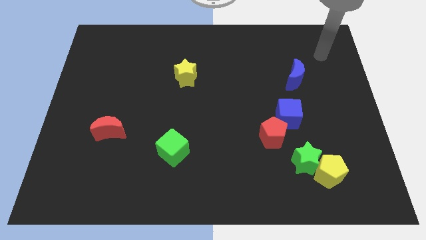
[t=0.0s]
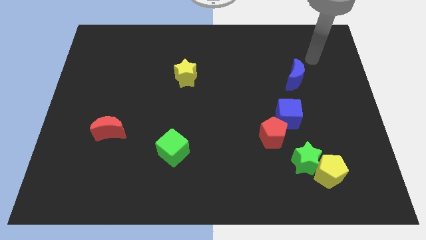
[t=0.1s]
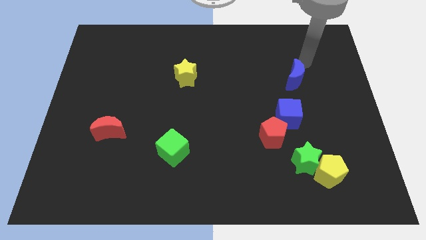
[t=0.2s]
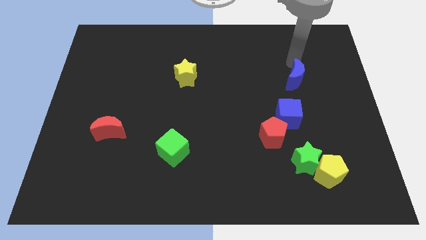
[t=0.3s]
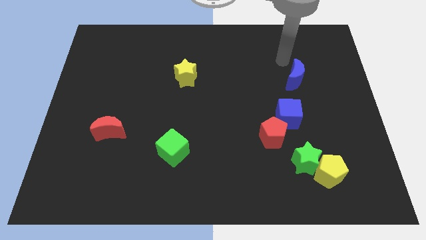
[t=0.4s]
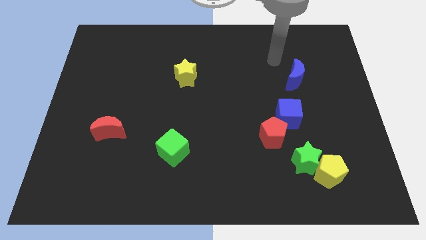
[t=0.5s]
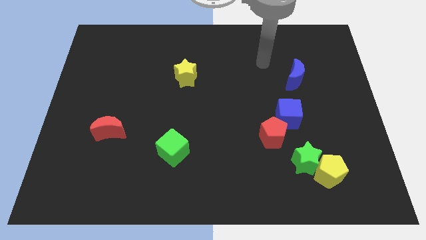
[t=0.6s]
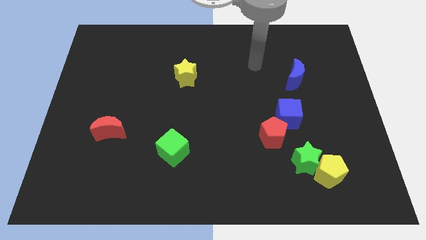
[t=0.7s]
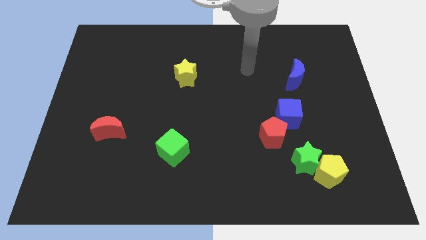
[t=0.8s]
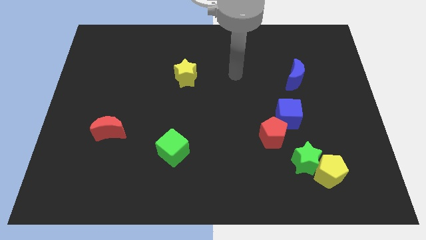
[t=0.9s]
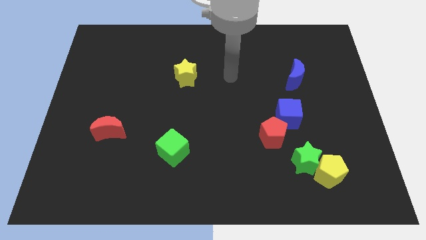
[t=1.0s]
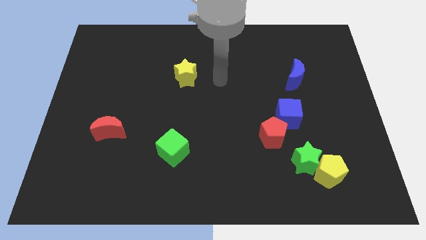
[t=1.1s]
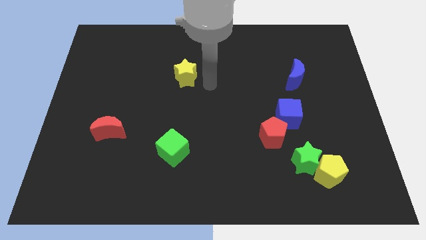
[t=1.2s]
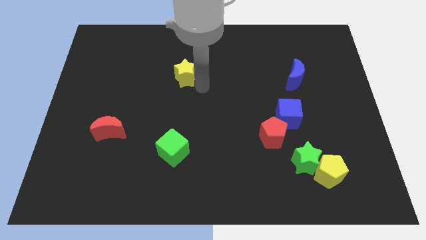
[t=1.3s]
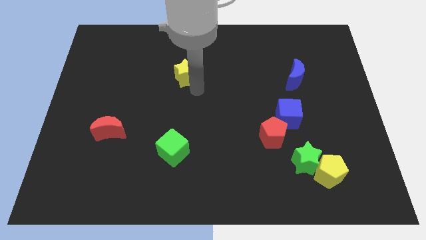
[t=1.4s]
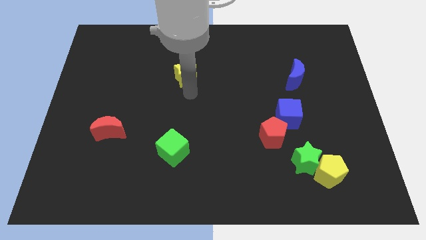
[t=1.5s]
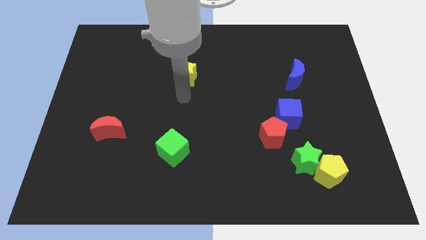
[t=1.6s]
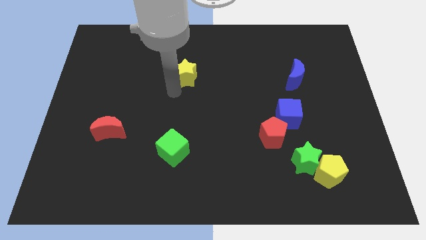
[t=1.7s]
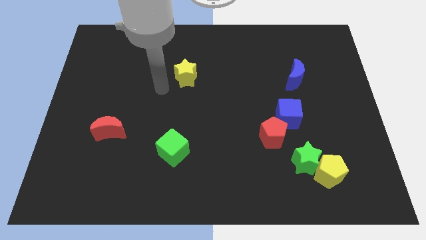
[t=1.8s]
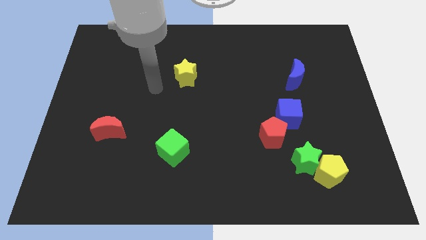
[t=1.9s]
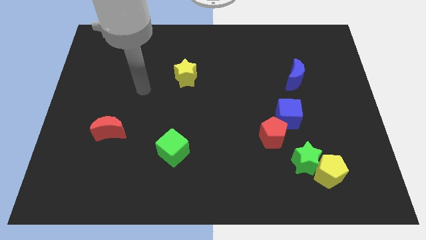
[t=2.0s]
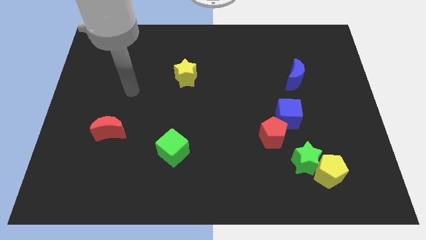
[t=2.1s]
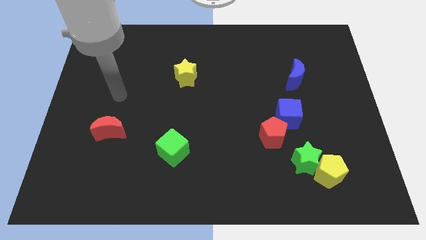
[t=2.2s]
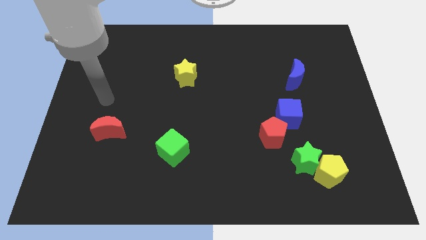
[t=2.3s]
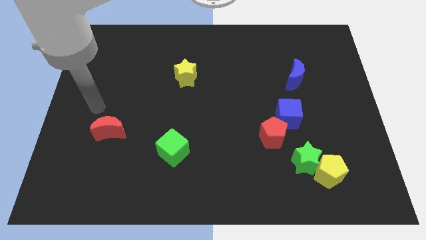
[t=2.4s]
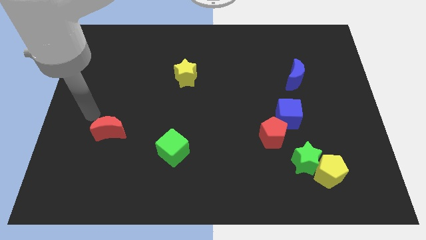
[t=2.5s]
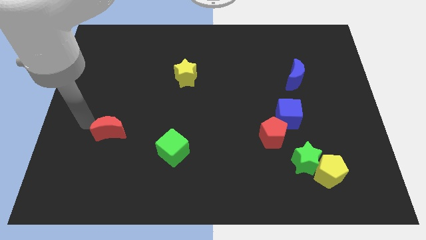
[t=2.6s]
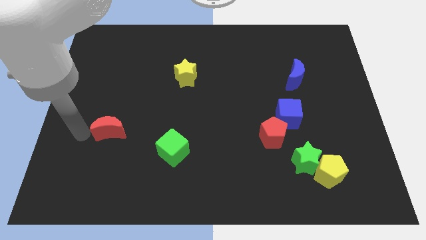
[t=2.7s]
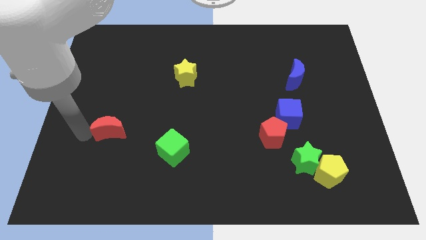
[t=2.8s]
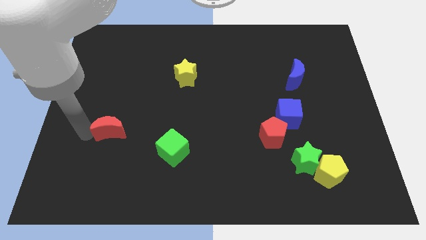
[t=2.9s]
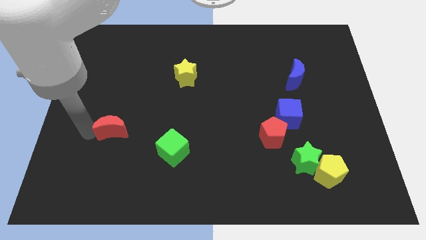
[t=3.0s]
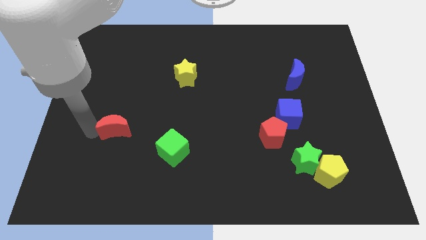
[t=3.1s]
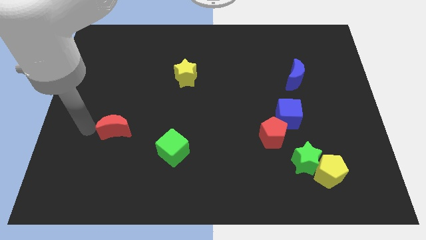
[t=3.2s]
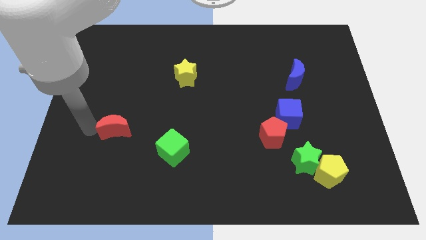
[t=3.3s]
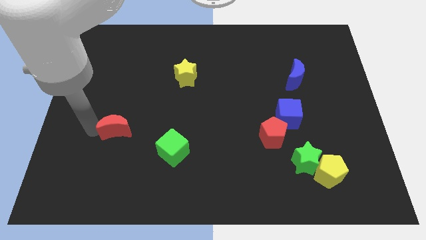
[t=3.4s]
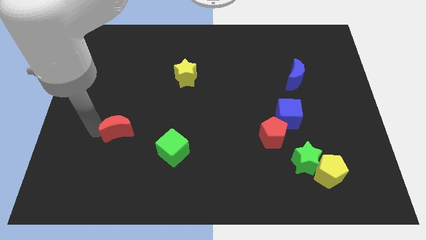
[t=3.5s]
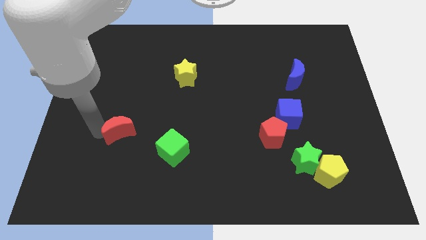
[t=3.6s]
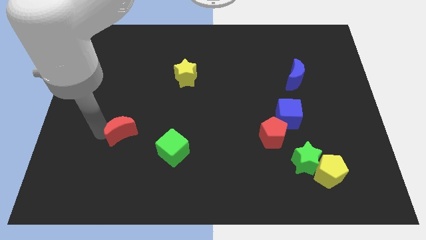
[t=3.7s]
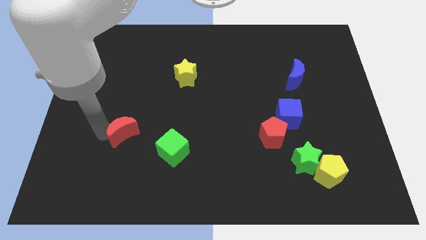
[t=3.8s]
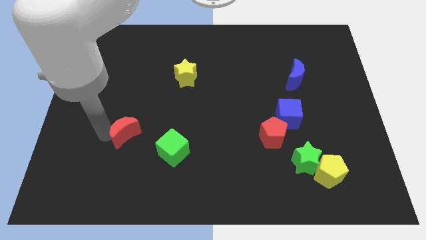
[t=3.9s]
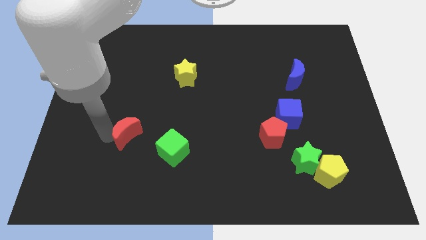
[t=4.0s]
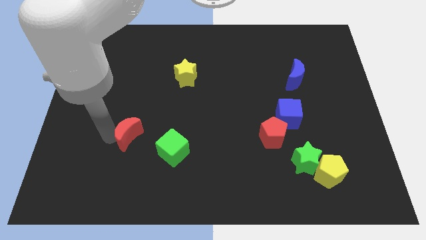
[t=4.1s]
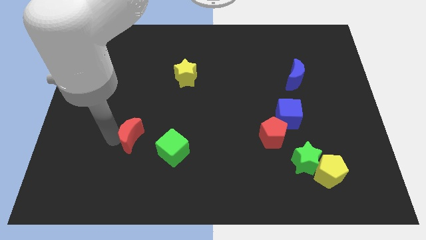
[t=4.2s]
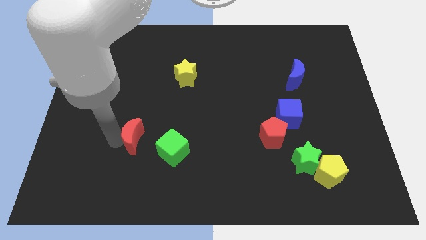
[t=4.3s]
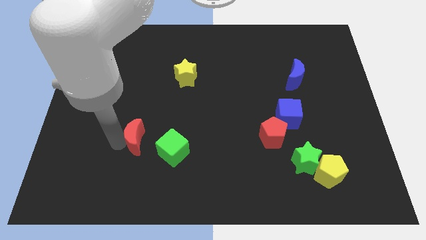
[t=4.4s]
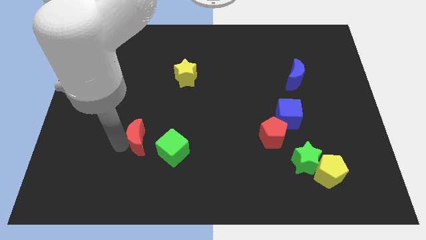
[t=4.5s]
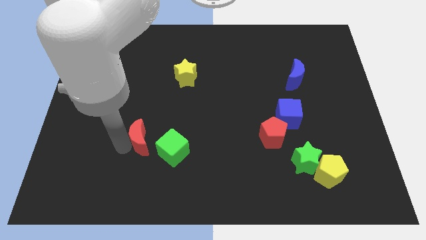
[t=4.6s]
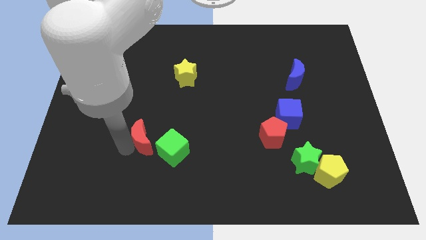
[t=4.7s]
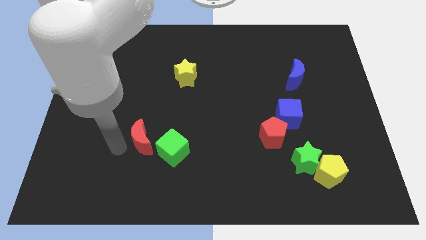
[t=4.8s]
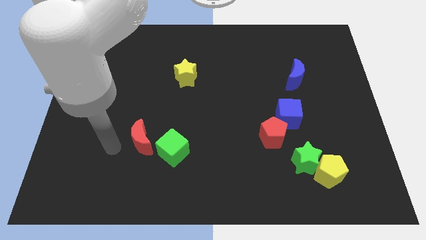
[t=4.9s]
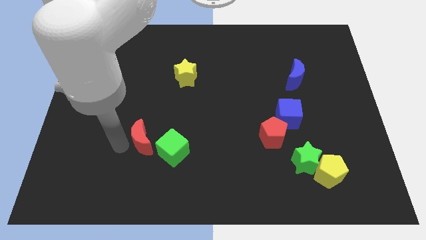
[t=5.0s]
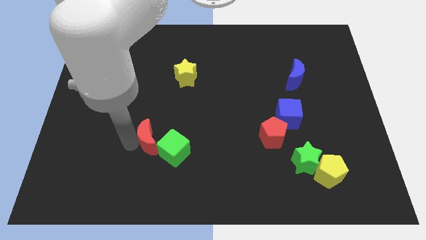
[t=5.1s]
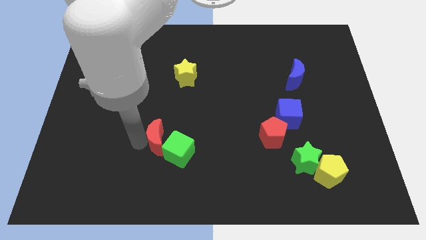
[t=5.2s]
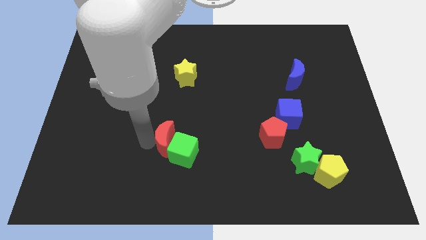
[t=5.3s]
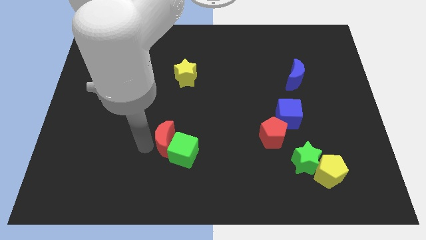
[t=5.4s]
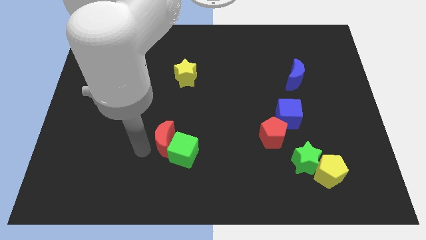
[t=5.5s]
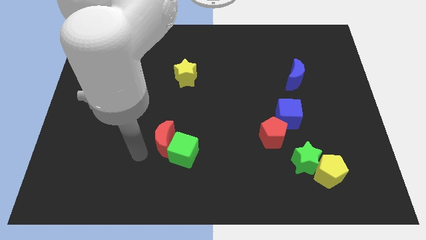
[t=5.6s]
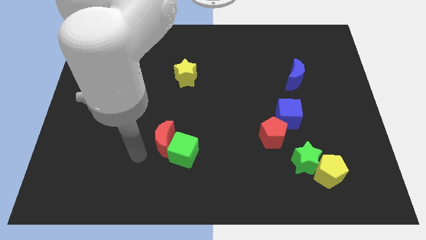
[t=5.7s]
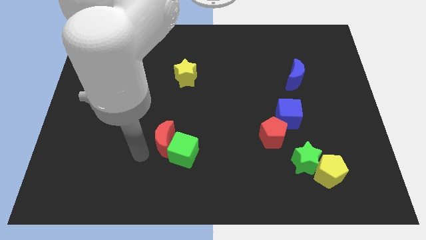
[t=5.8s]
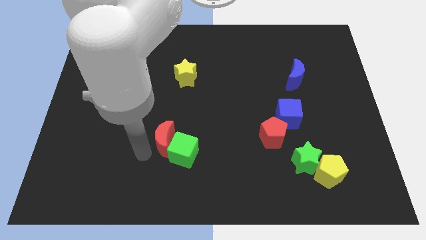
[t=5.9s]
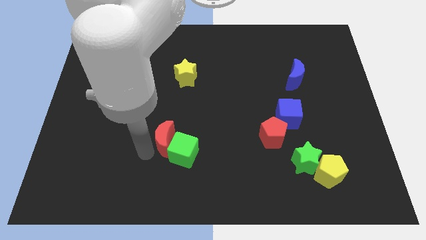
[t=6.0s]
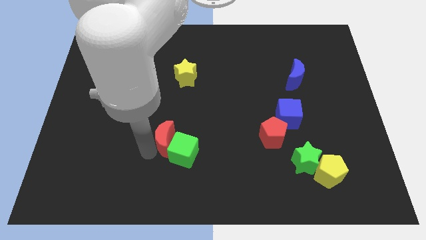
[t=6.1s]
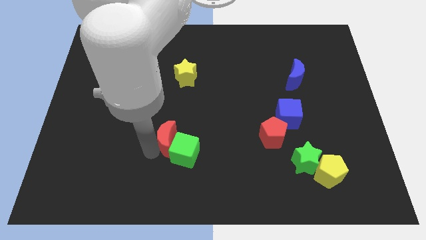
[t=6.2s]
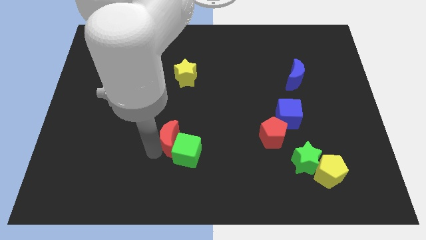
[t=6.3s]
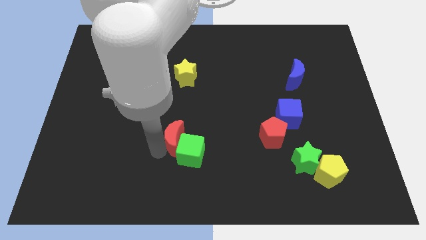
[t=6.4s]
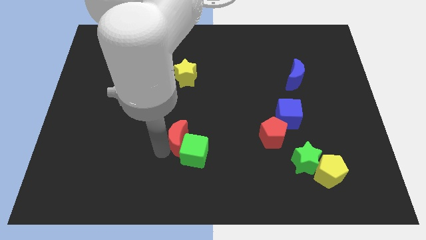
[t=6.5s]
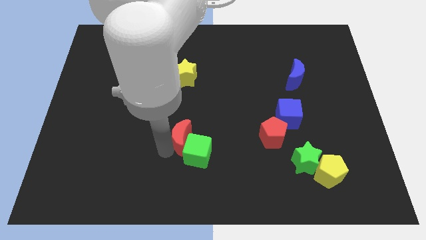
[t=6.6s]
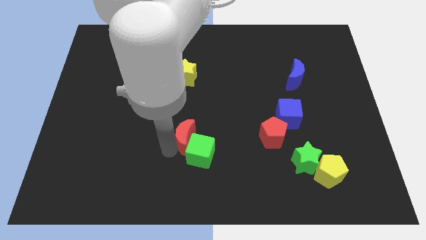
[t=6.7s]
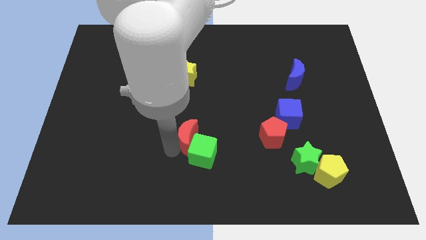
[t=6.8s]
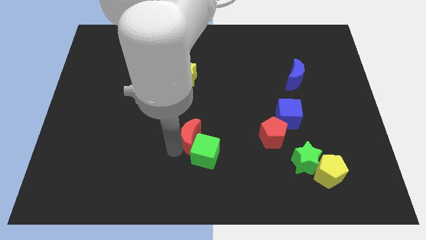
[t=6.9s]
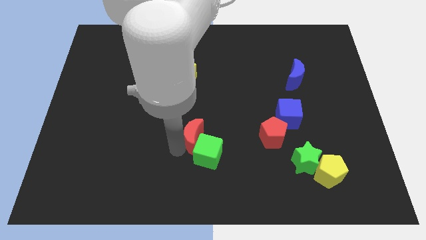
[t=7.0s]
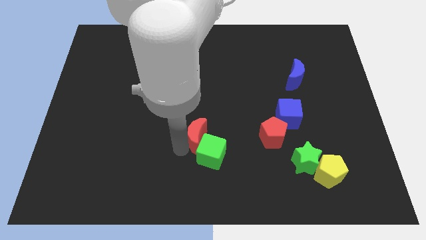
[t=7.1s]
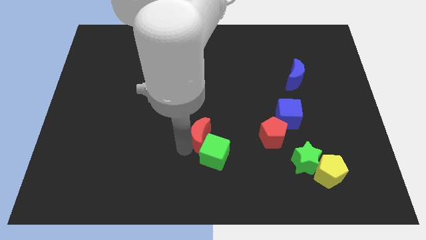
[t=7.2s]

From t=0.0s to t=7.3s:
move the red moon just left of the red pentagon
